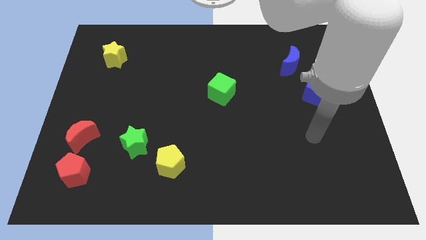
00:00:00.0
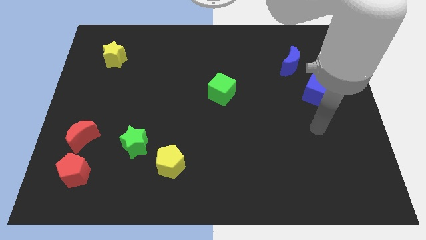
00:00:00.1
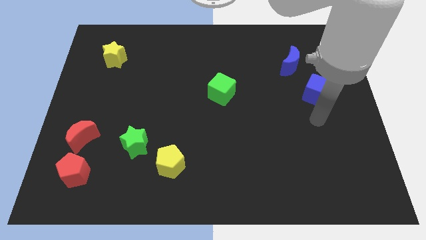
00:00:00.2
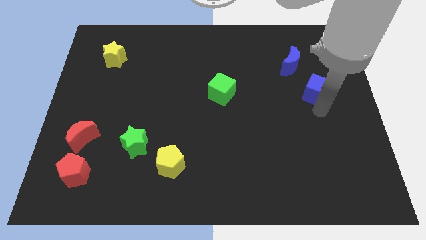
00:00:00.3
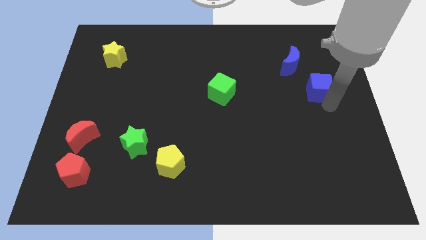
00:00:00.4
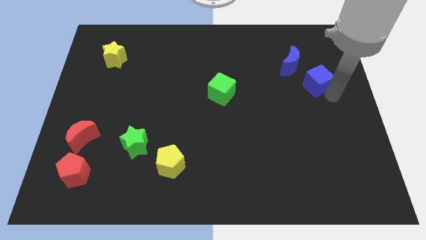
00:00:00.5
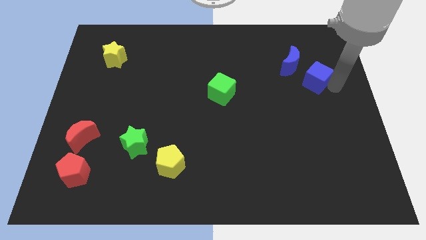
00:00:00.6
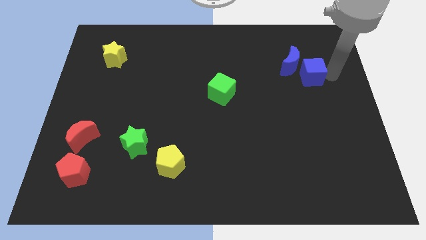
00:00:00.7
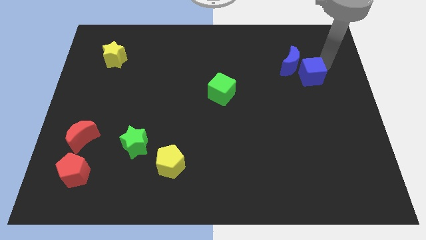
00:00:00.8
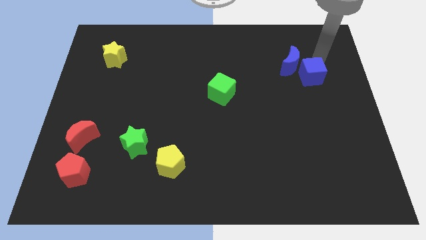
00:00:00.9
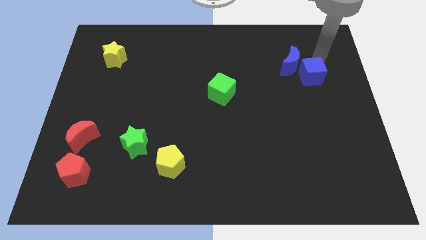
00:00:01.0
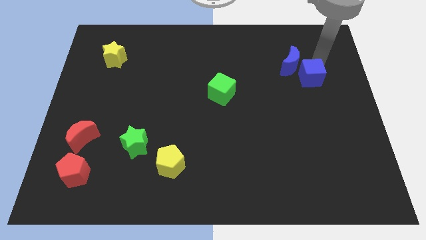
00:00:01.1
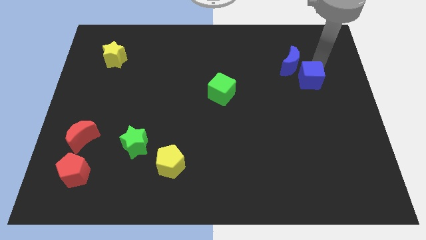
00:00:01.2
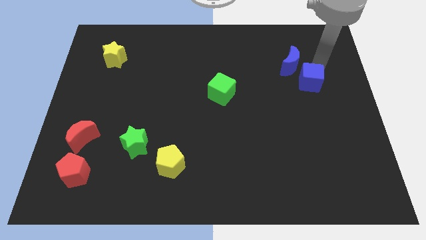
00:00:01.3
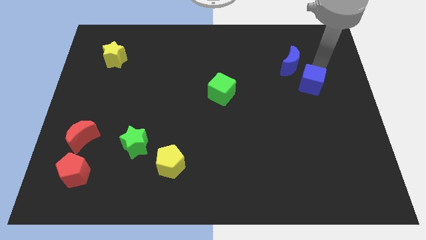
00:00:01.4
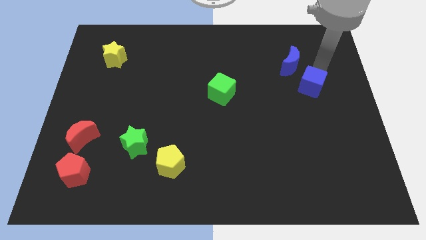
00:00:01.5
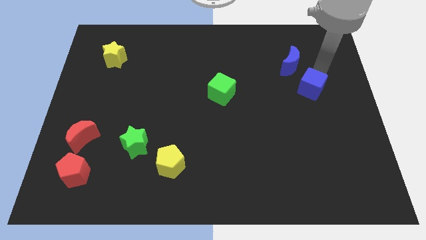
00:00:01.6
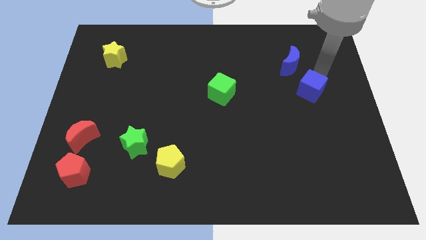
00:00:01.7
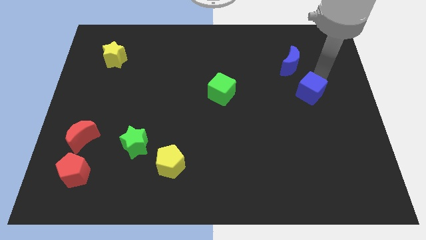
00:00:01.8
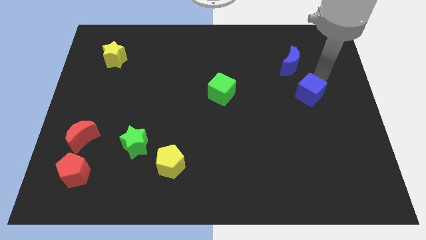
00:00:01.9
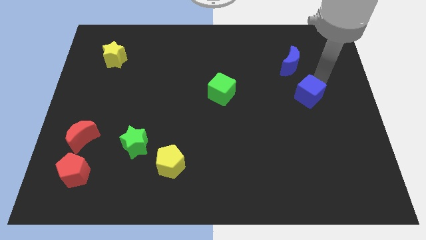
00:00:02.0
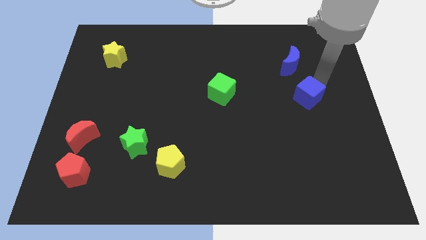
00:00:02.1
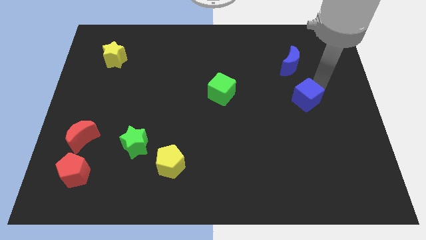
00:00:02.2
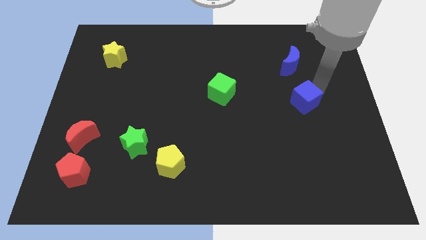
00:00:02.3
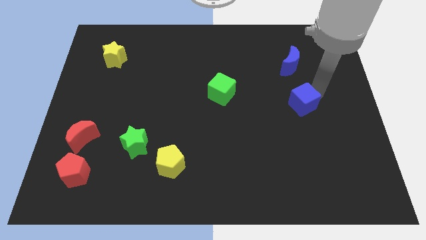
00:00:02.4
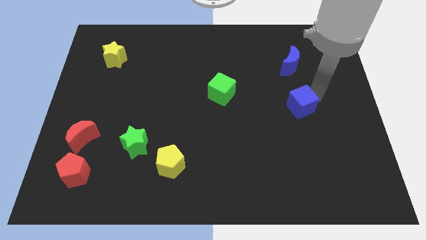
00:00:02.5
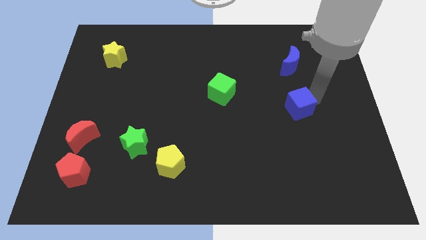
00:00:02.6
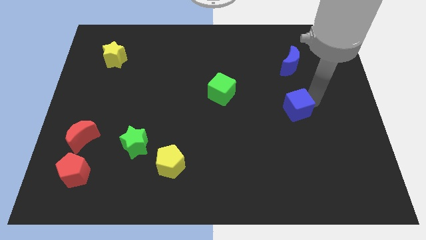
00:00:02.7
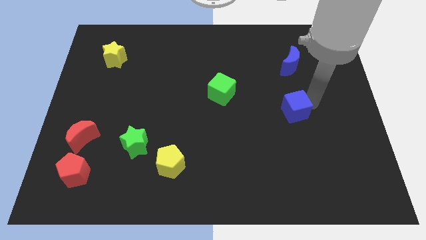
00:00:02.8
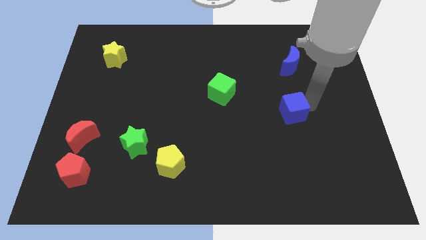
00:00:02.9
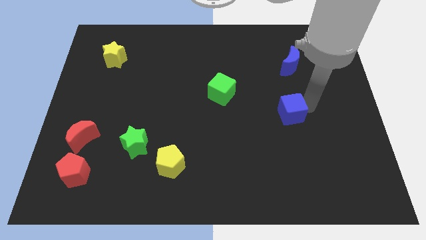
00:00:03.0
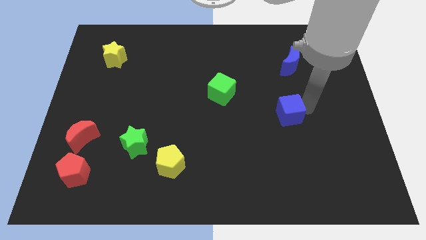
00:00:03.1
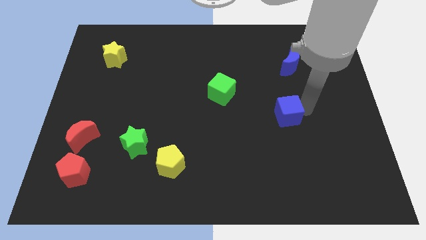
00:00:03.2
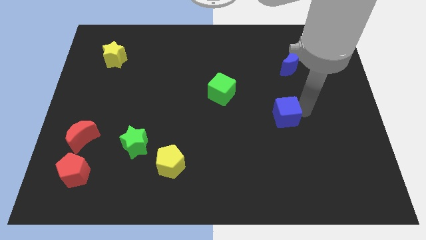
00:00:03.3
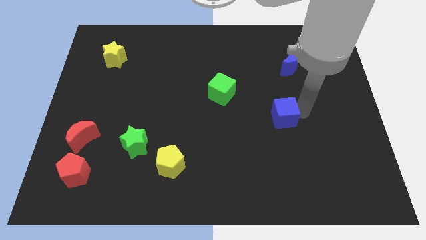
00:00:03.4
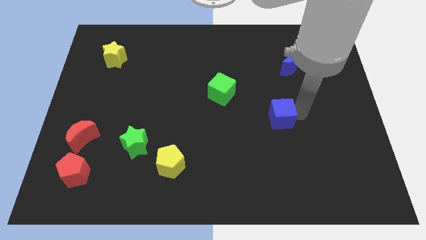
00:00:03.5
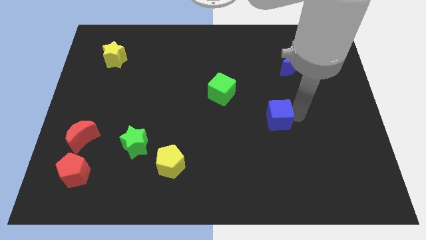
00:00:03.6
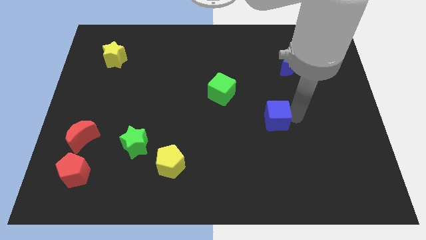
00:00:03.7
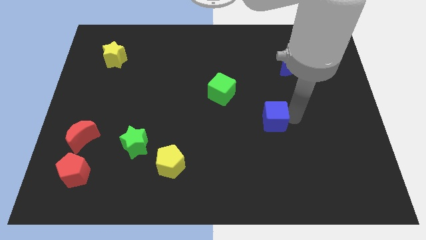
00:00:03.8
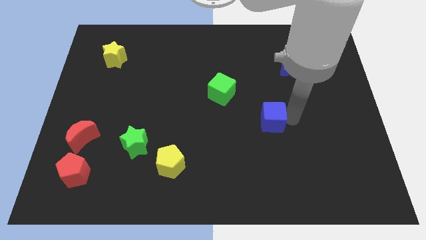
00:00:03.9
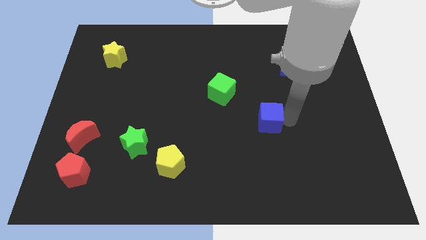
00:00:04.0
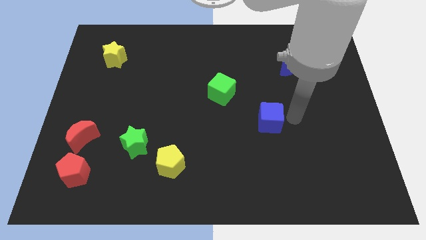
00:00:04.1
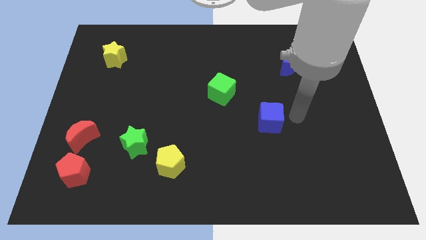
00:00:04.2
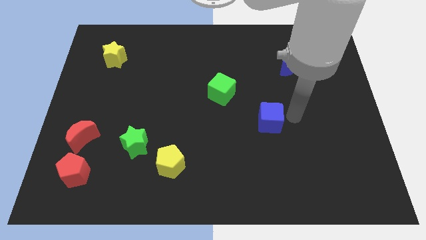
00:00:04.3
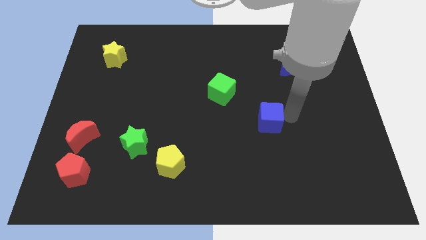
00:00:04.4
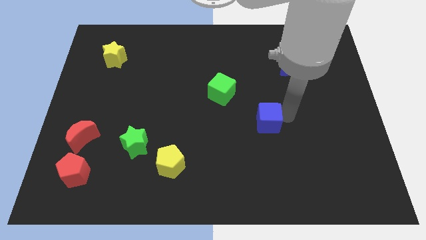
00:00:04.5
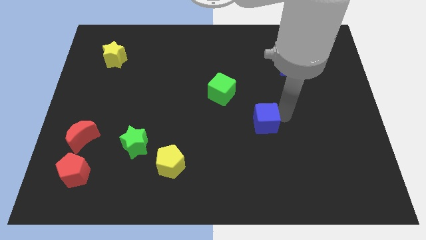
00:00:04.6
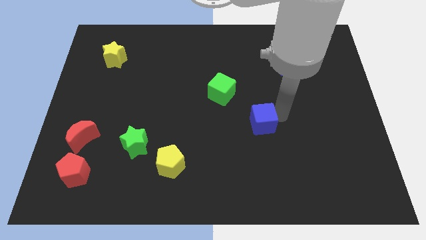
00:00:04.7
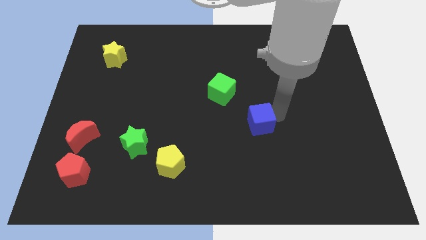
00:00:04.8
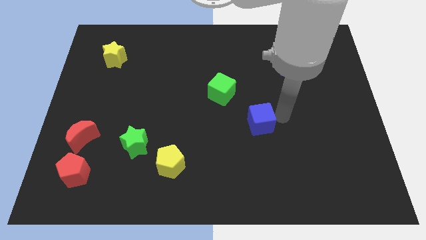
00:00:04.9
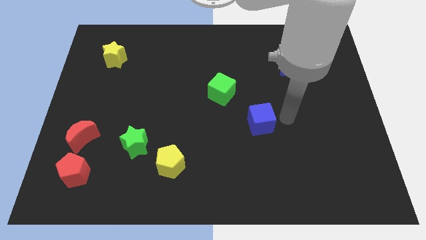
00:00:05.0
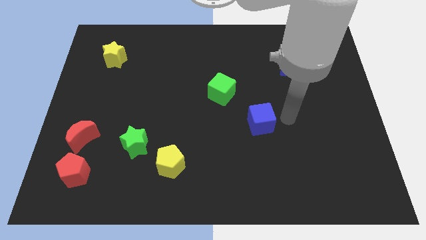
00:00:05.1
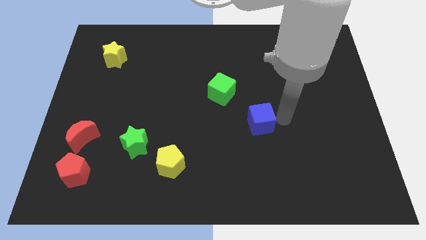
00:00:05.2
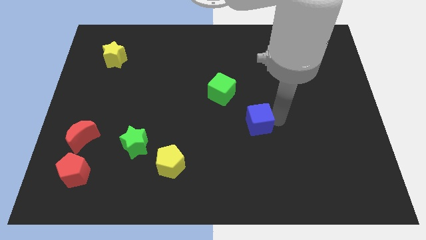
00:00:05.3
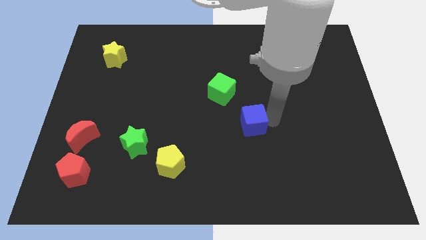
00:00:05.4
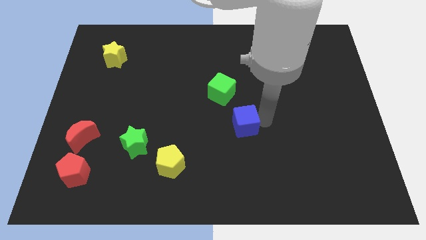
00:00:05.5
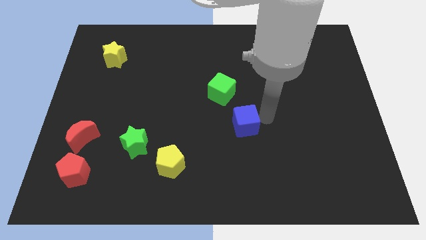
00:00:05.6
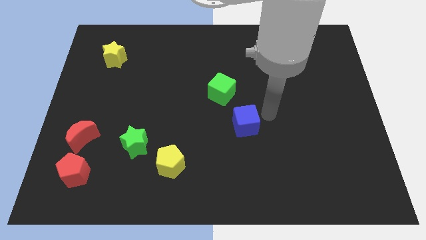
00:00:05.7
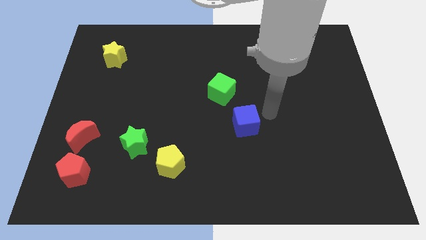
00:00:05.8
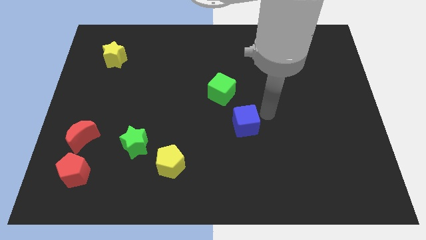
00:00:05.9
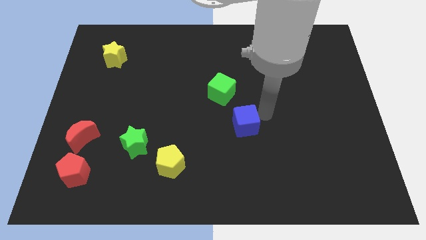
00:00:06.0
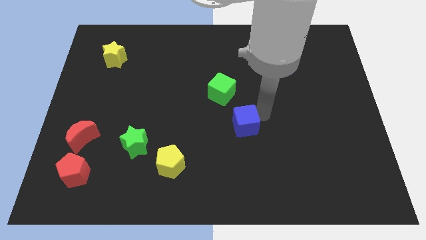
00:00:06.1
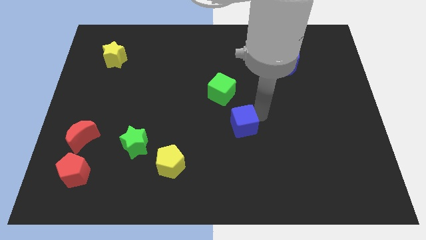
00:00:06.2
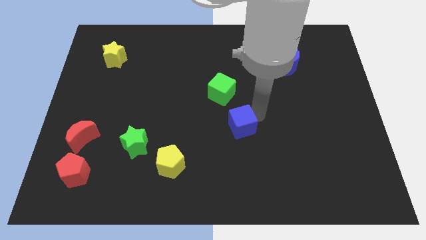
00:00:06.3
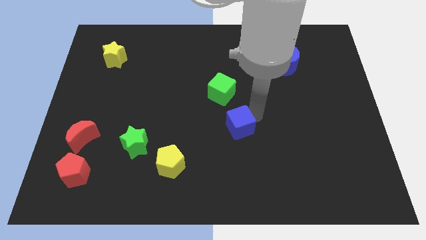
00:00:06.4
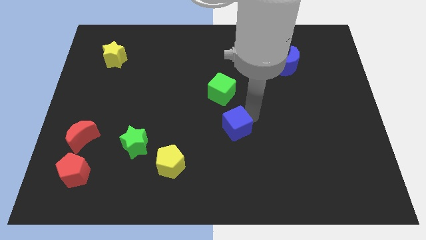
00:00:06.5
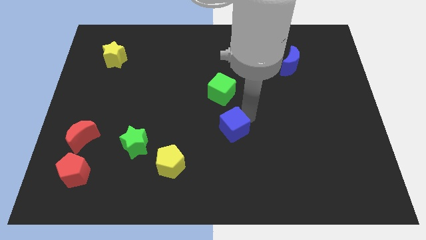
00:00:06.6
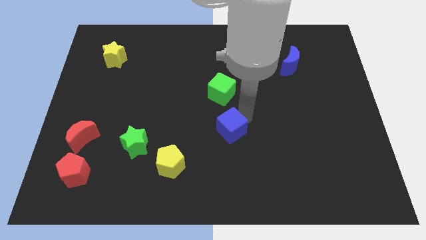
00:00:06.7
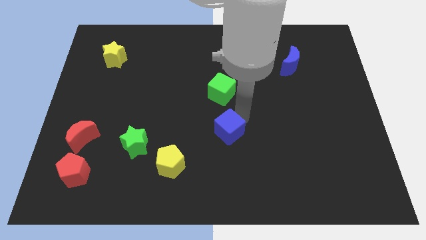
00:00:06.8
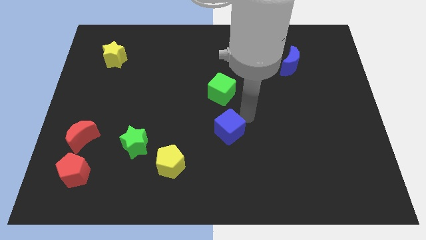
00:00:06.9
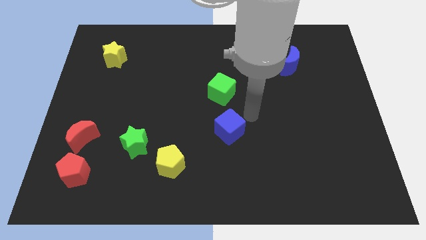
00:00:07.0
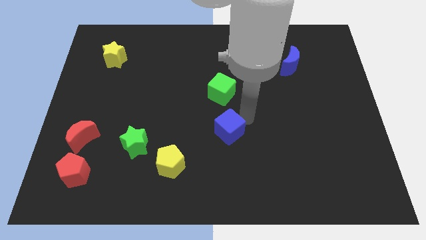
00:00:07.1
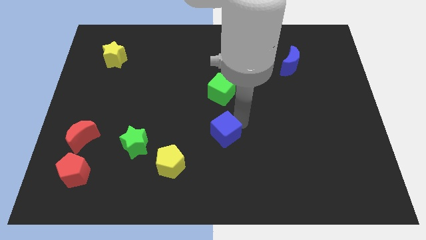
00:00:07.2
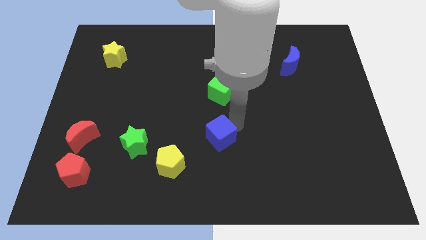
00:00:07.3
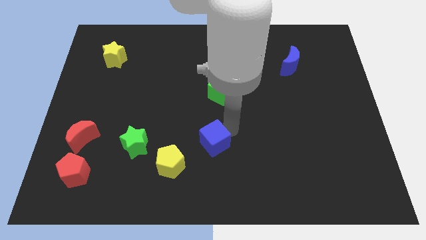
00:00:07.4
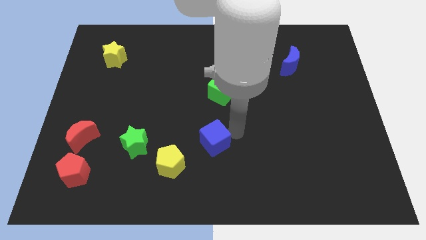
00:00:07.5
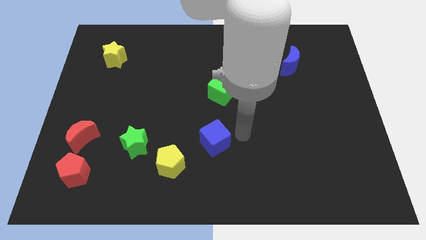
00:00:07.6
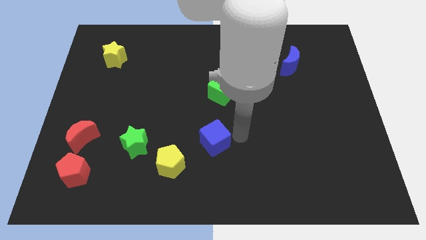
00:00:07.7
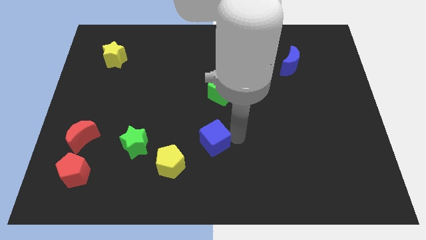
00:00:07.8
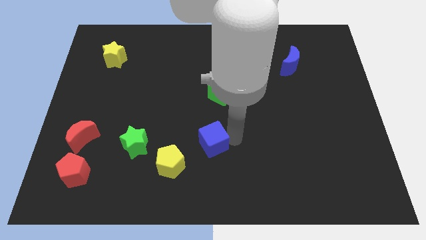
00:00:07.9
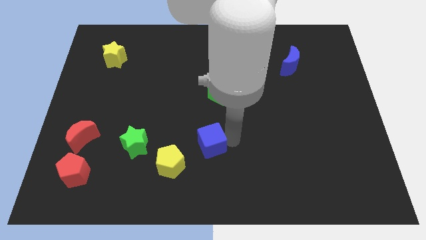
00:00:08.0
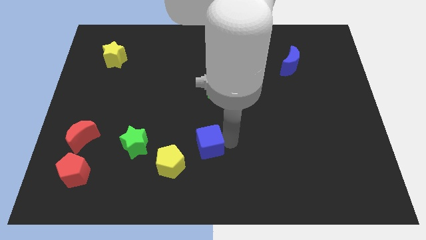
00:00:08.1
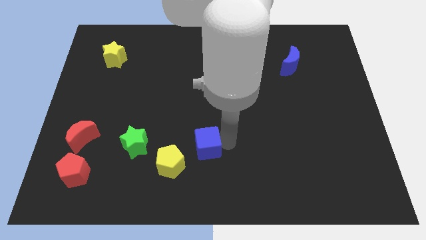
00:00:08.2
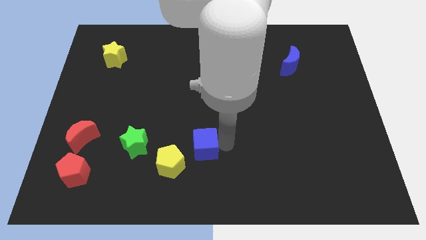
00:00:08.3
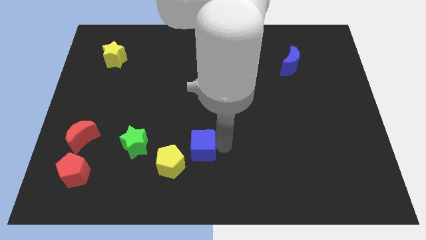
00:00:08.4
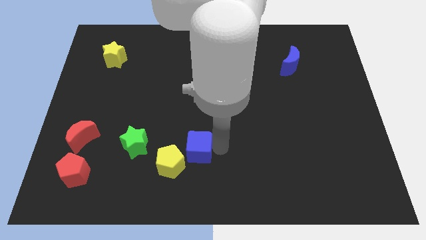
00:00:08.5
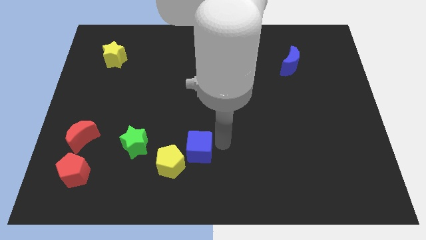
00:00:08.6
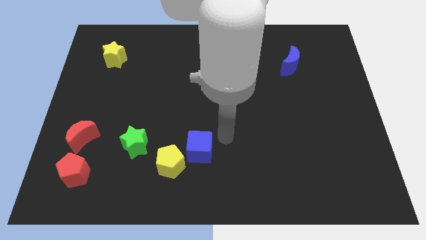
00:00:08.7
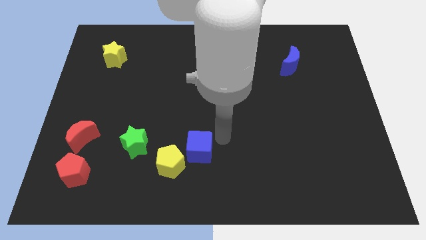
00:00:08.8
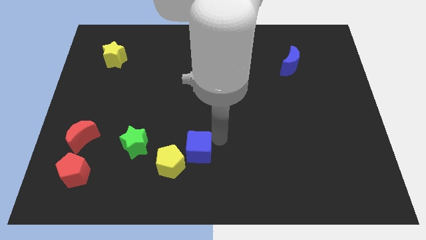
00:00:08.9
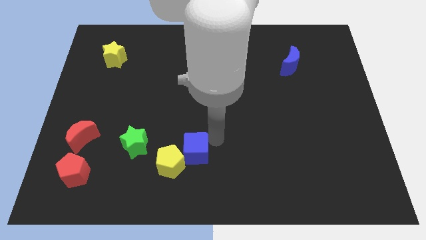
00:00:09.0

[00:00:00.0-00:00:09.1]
put the blue cube to the yellow pentagon
